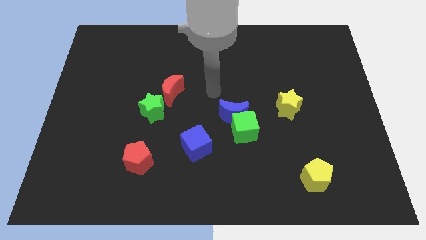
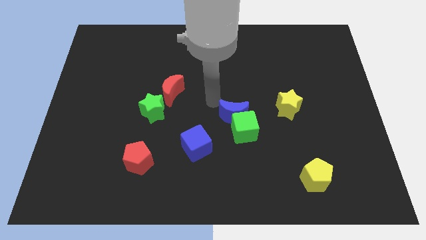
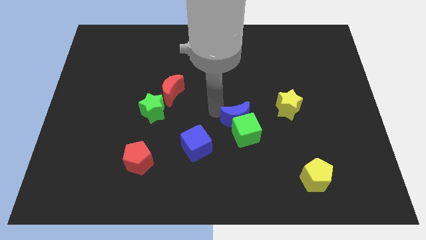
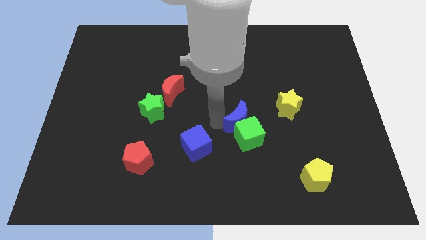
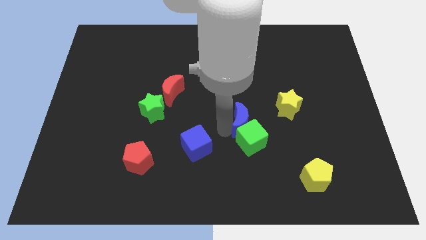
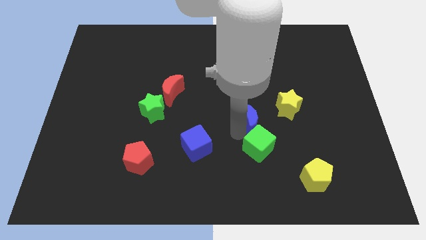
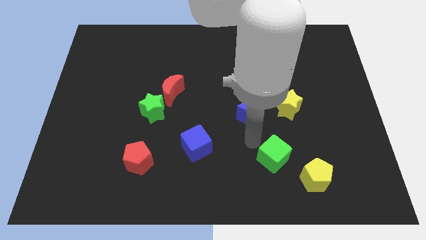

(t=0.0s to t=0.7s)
pull the blue moon apart from the green cube

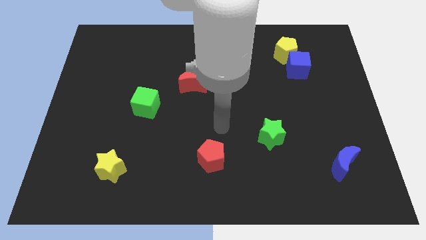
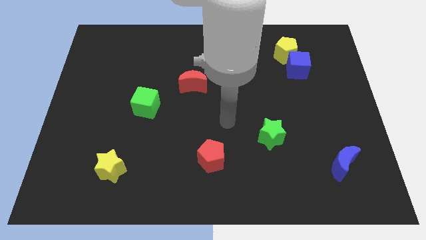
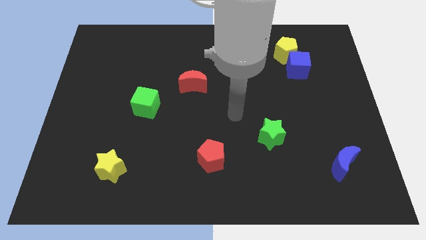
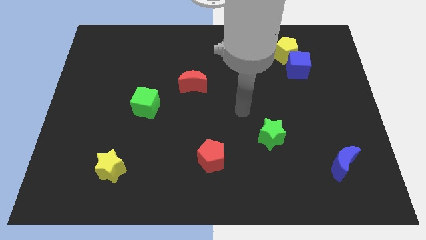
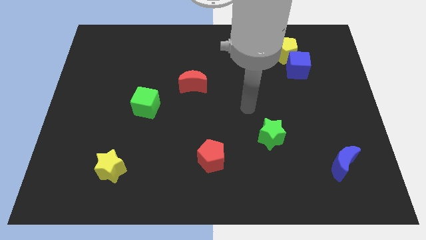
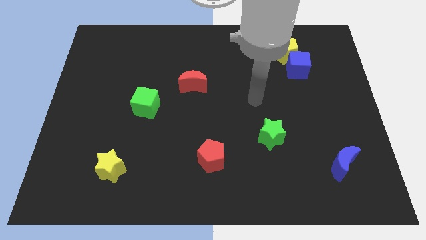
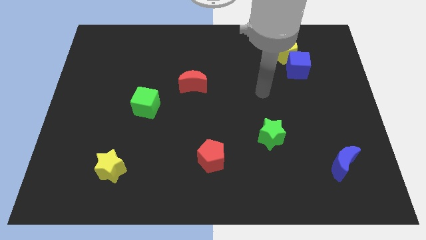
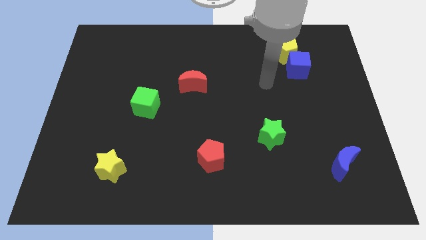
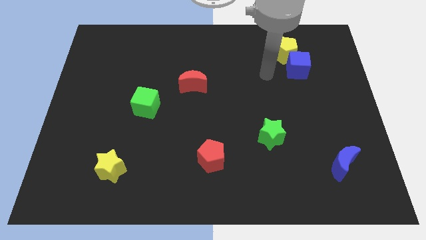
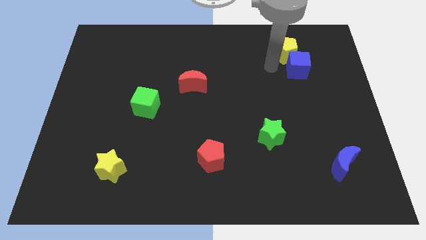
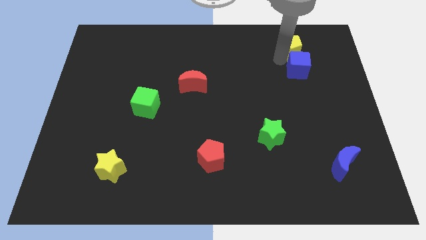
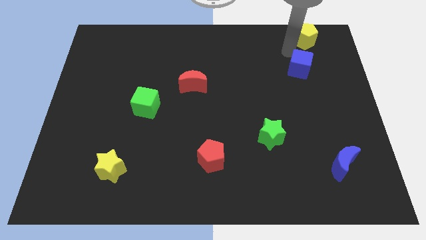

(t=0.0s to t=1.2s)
move the blue cube away from the yellow pentagon

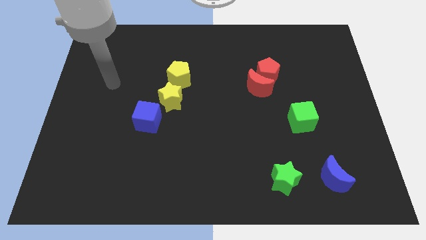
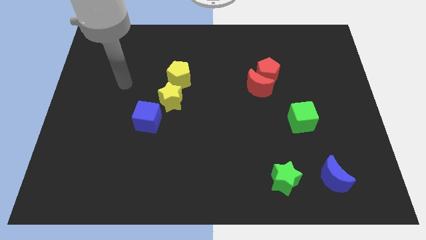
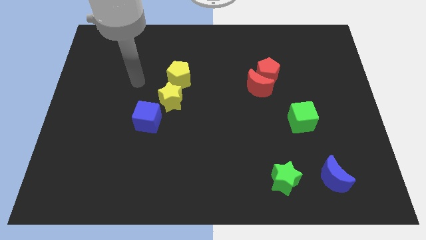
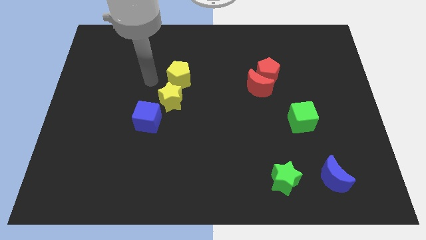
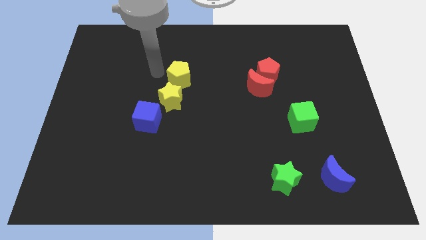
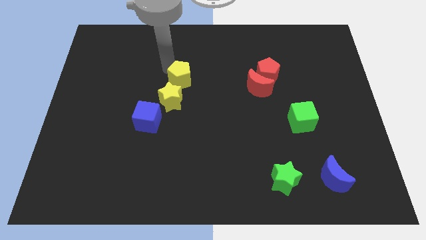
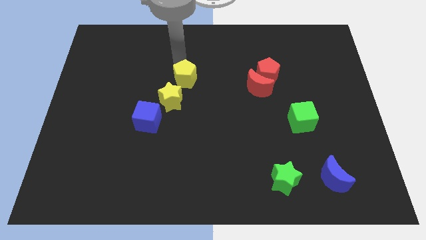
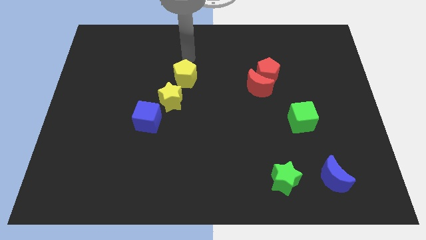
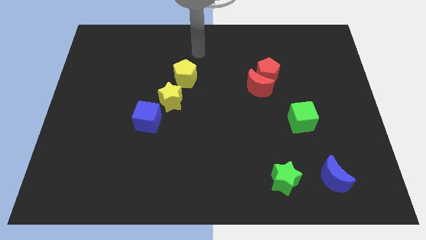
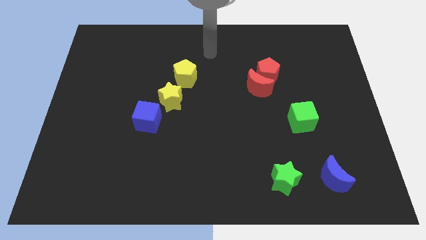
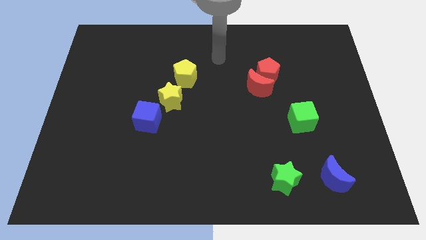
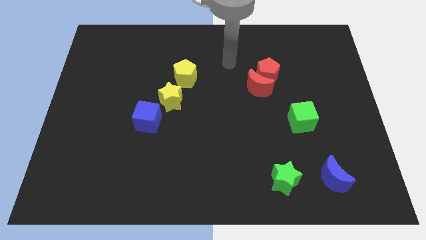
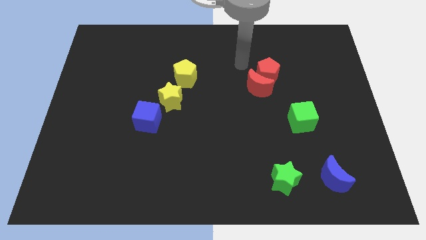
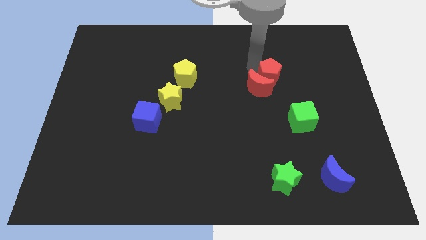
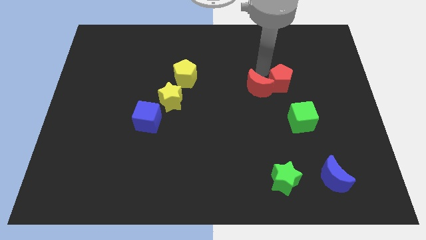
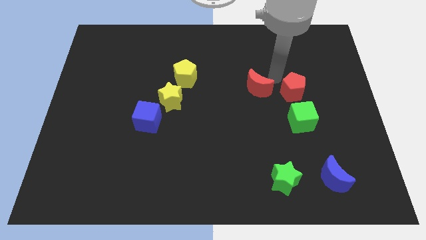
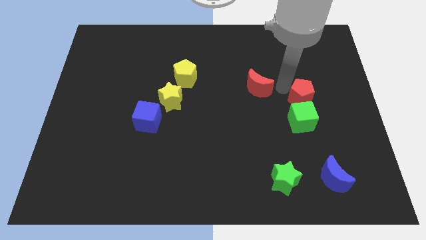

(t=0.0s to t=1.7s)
pull the red moon apart from the red pentagon

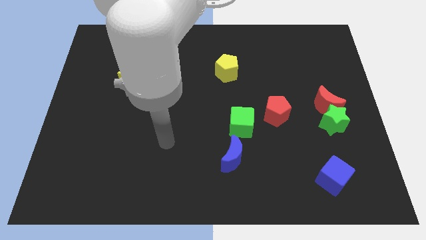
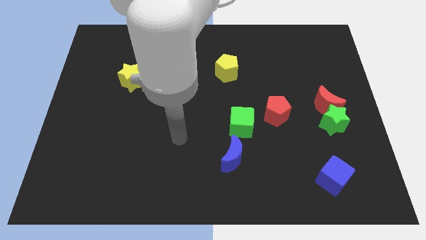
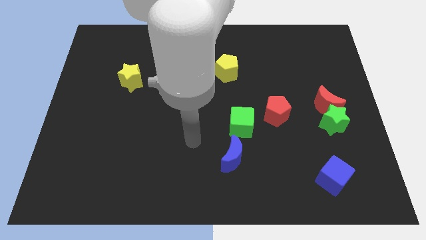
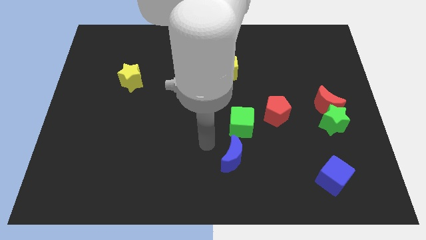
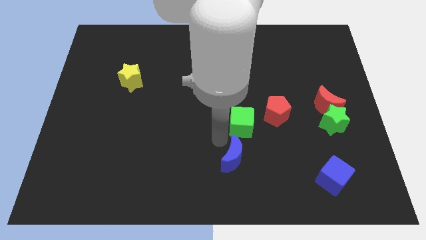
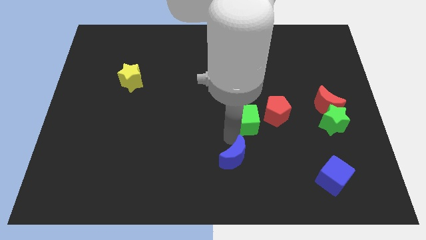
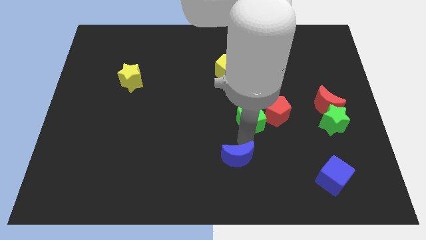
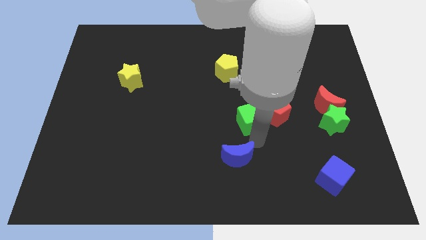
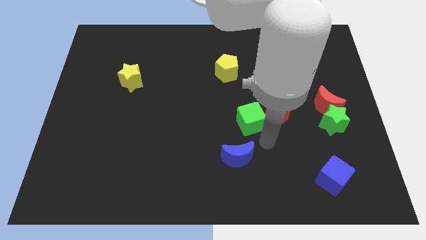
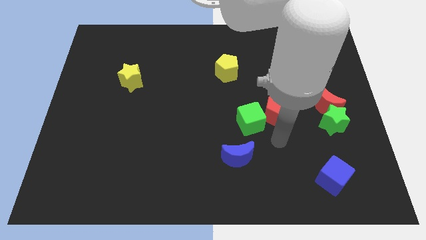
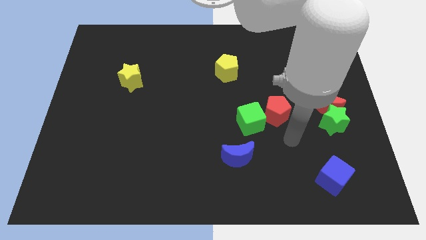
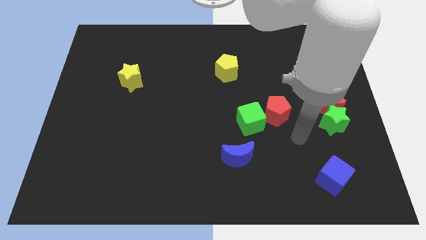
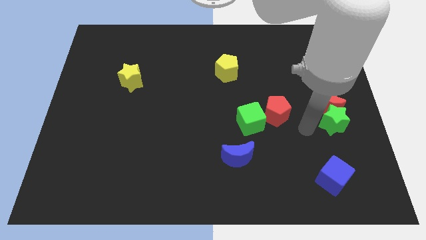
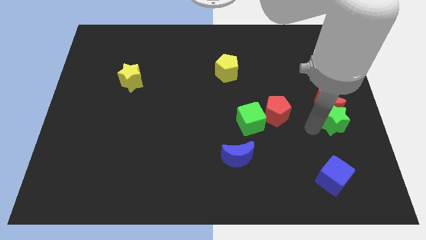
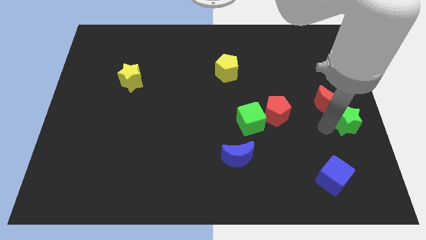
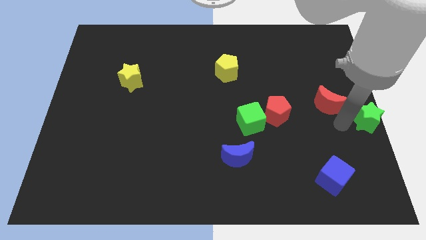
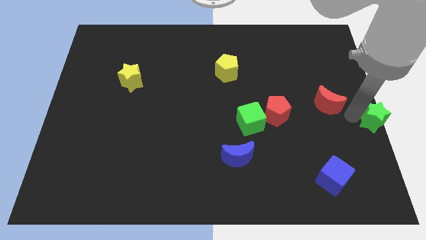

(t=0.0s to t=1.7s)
pull the red moon apart from the green star

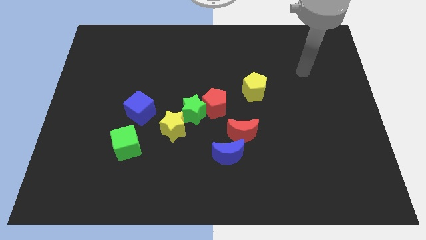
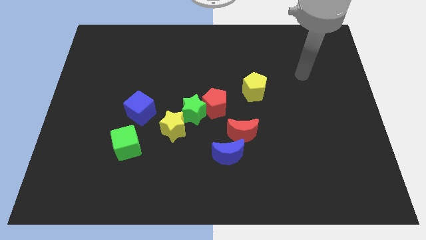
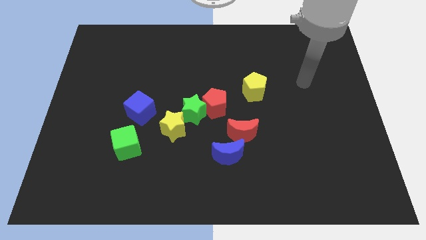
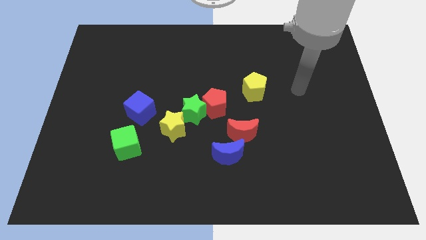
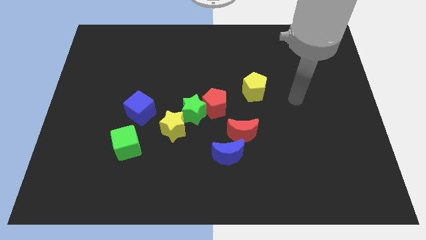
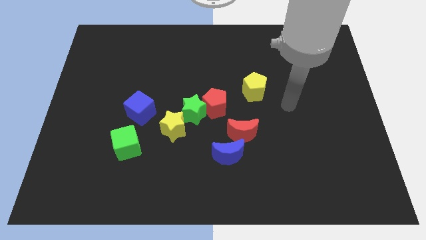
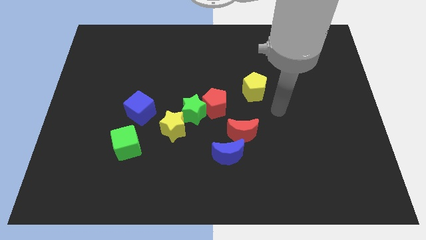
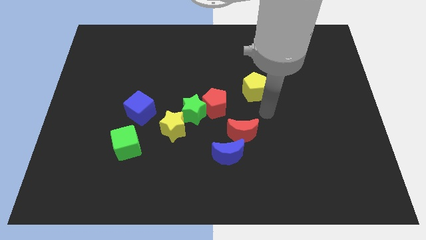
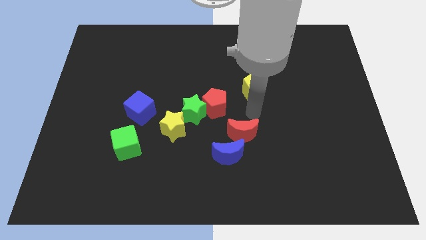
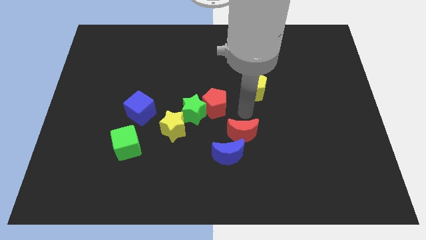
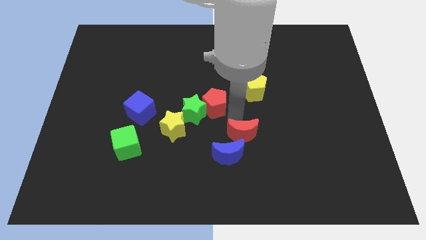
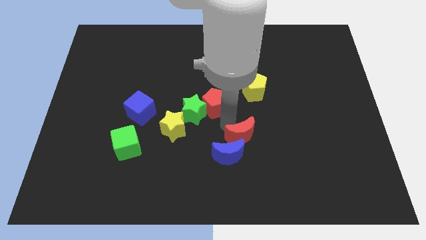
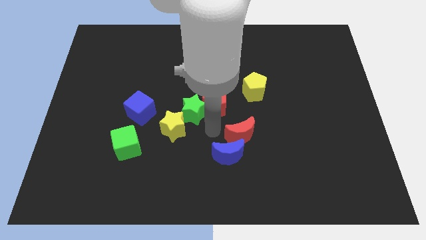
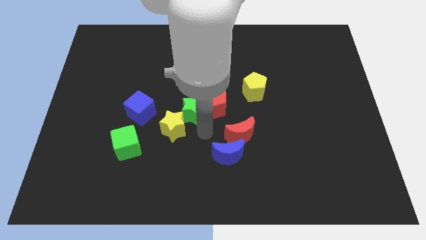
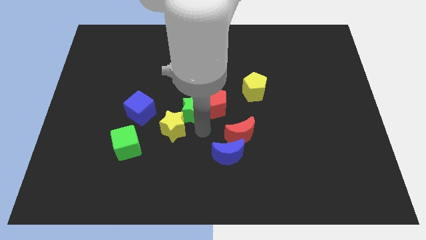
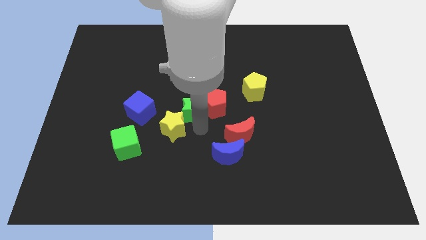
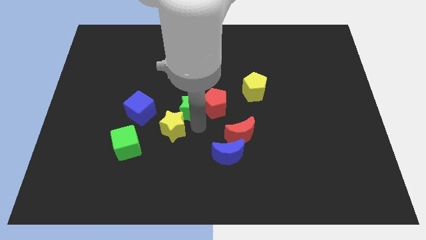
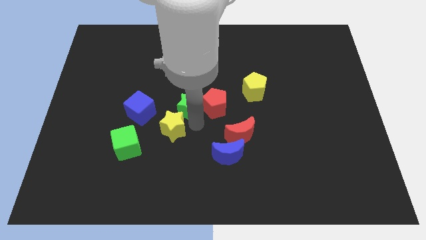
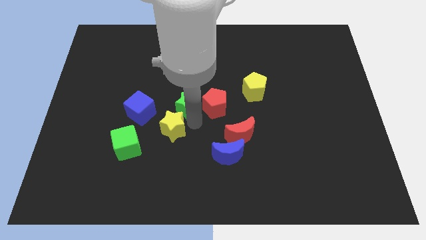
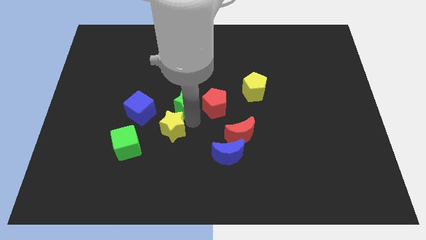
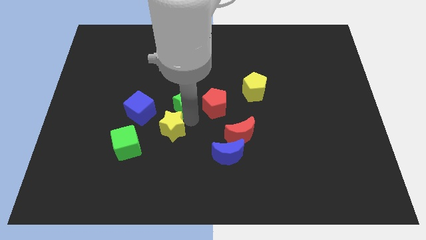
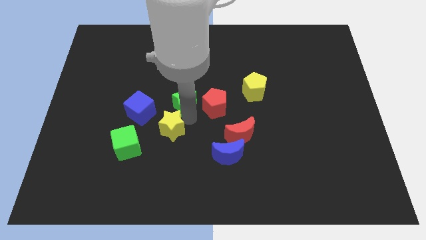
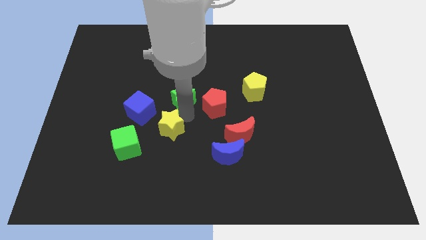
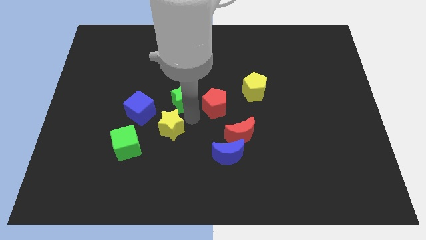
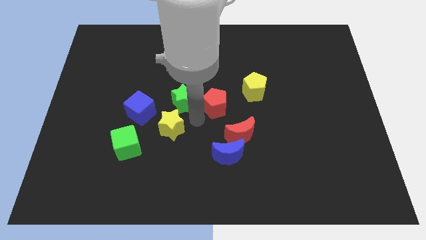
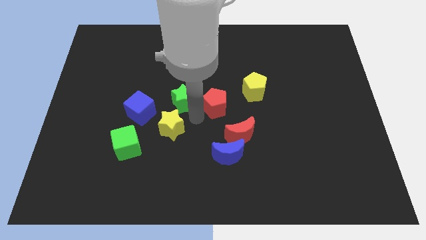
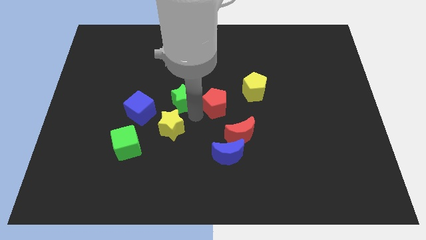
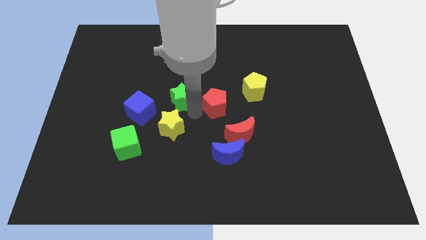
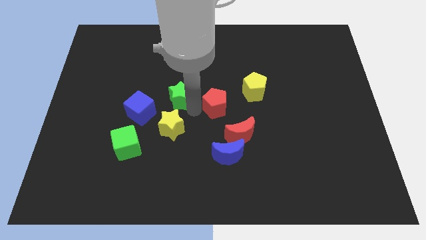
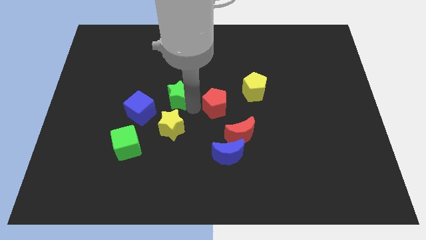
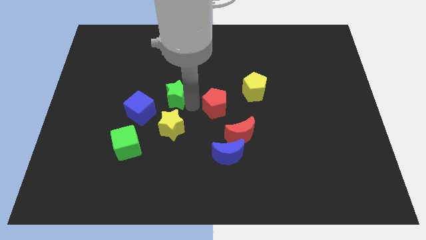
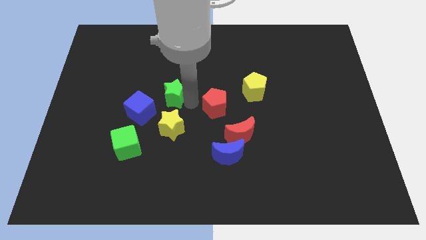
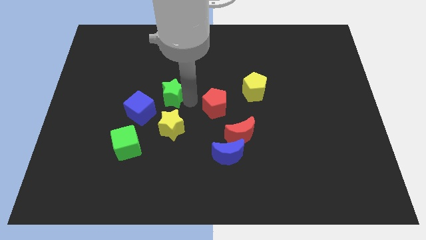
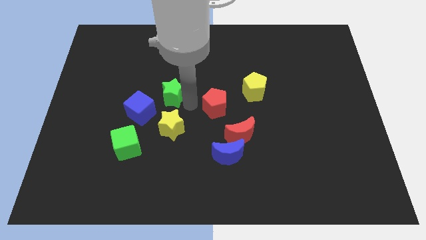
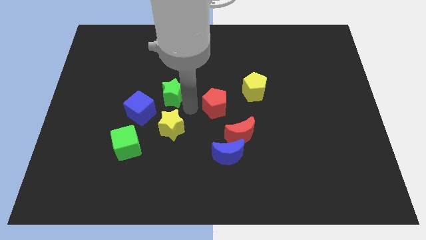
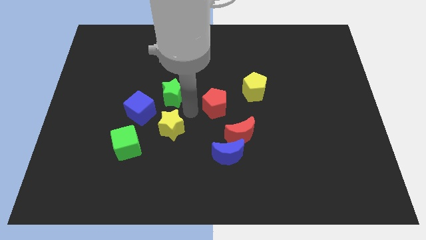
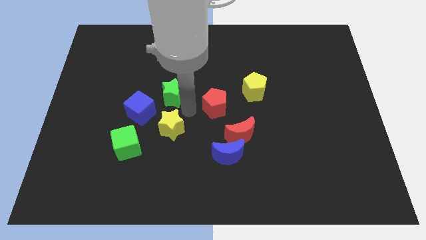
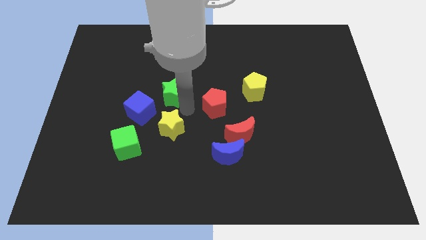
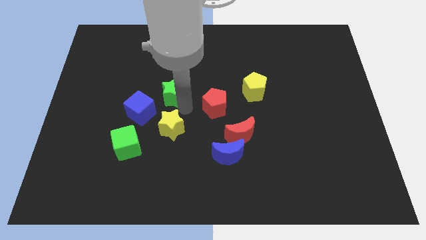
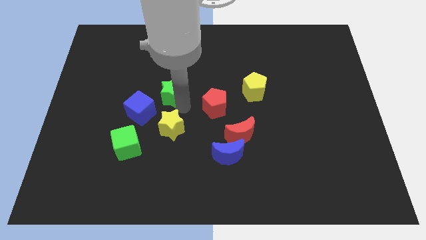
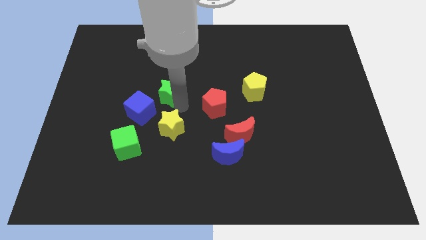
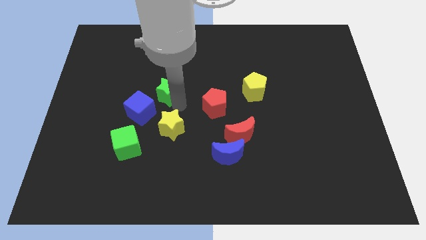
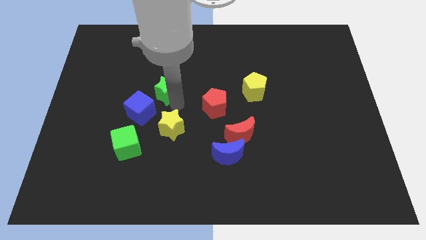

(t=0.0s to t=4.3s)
pull the green star apart from the red pentagon and yellow star
